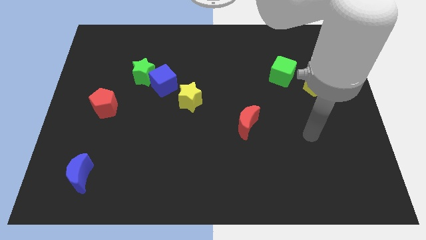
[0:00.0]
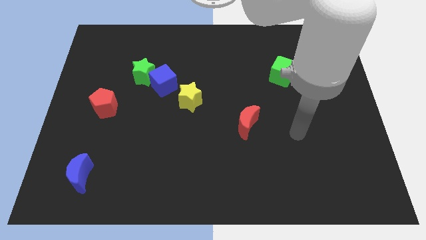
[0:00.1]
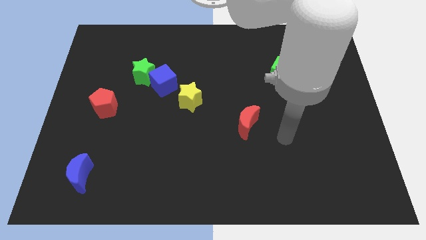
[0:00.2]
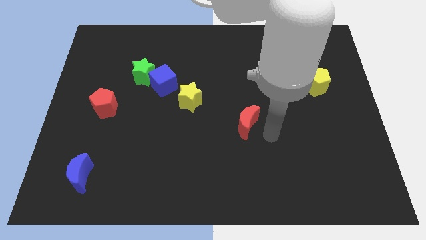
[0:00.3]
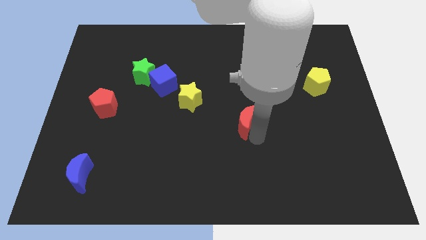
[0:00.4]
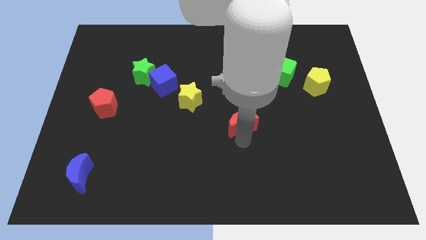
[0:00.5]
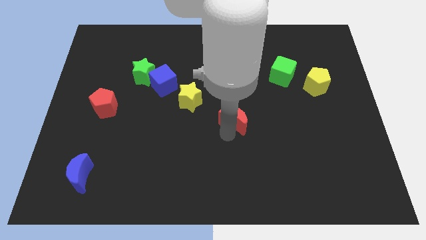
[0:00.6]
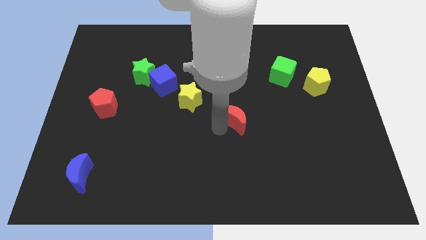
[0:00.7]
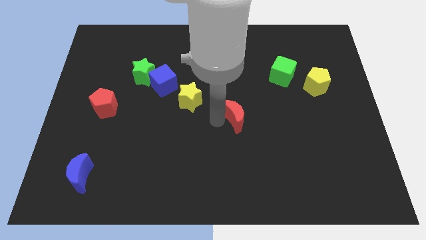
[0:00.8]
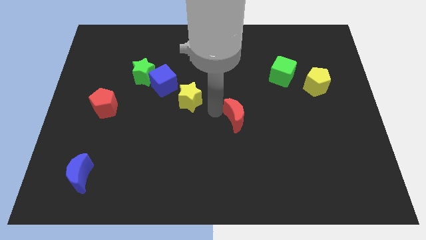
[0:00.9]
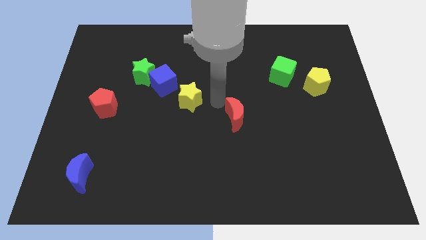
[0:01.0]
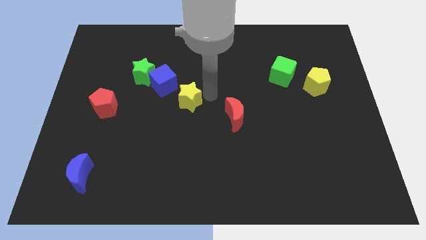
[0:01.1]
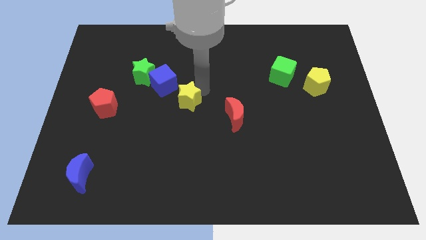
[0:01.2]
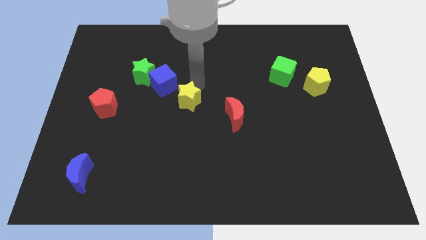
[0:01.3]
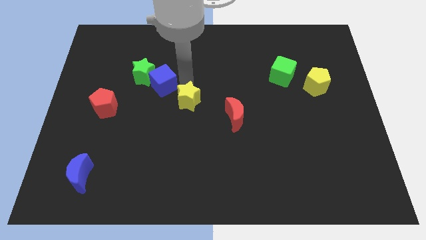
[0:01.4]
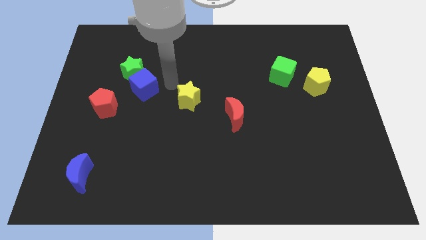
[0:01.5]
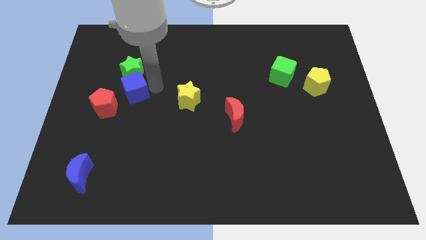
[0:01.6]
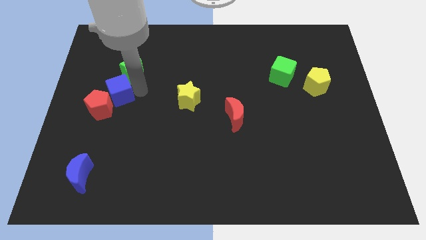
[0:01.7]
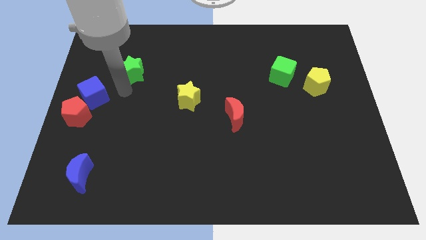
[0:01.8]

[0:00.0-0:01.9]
move the green star away from the blue cube

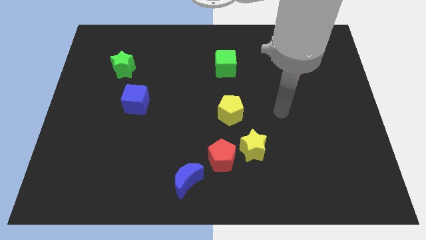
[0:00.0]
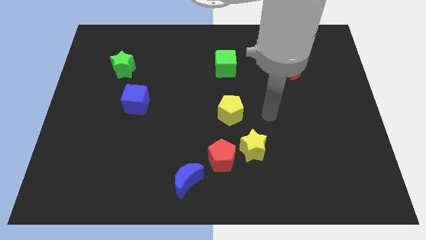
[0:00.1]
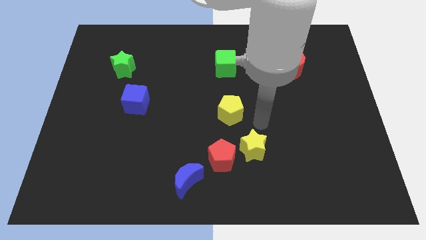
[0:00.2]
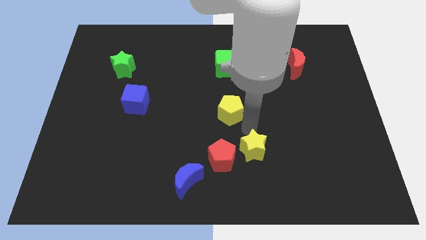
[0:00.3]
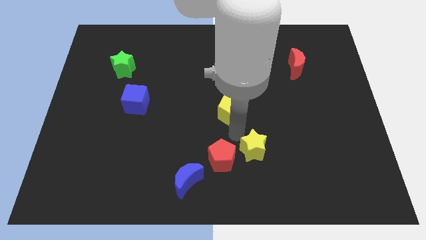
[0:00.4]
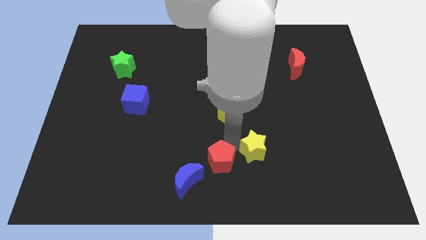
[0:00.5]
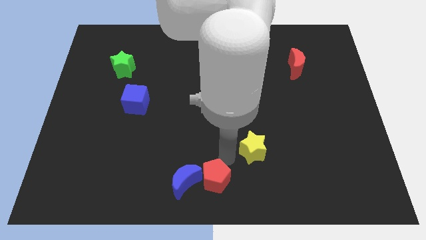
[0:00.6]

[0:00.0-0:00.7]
pull the yellow star apart from the red pentagon

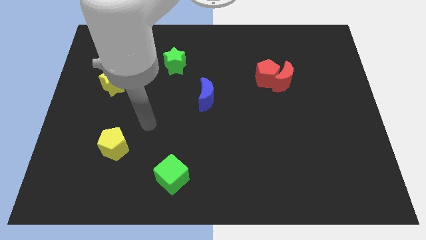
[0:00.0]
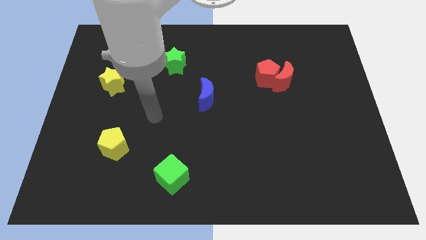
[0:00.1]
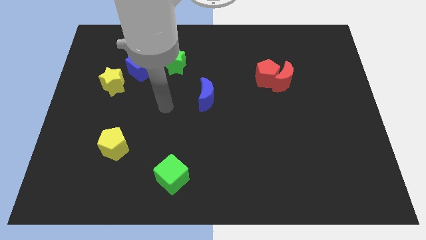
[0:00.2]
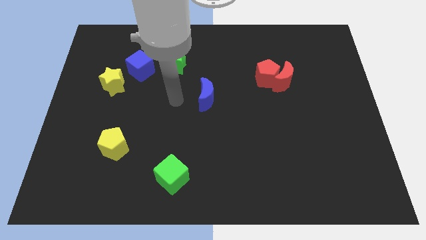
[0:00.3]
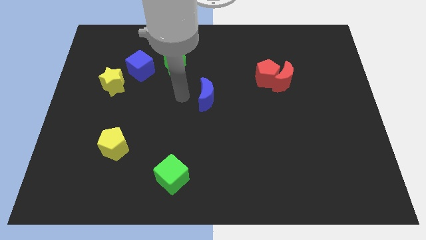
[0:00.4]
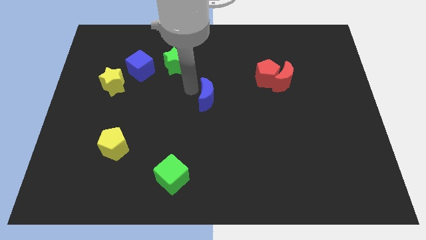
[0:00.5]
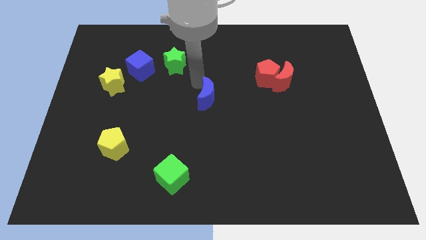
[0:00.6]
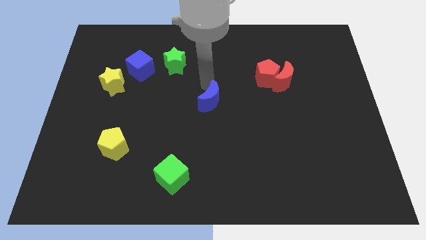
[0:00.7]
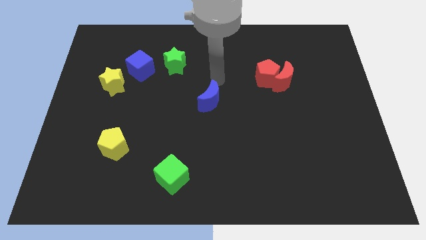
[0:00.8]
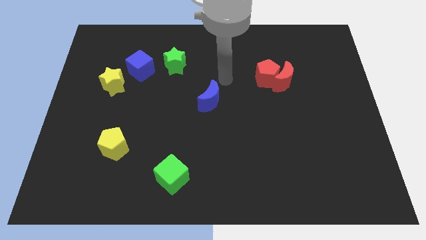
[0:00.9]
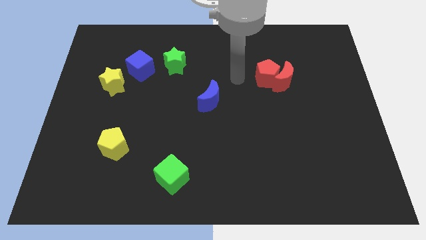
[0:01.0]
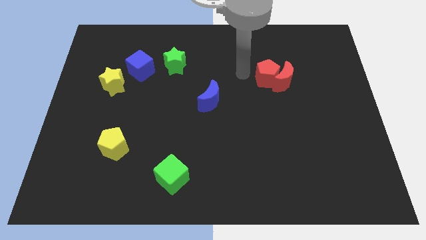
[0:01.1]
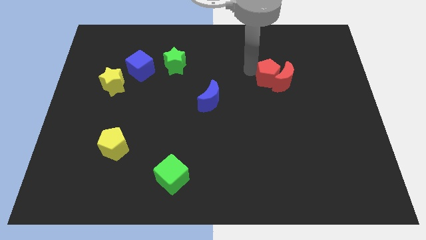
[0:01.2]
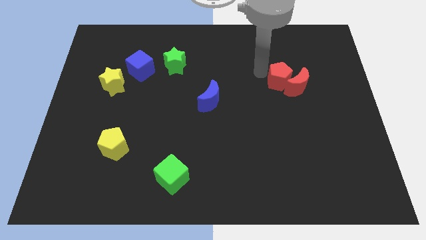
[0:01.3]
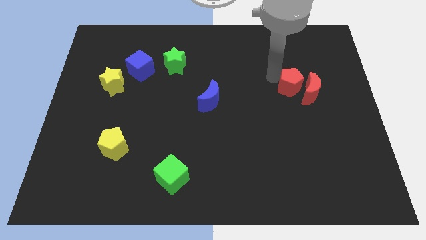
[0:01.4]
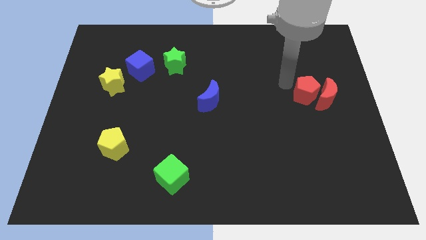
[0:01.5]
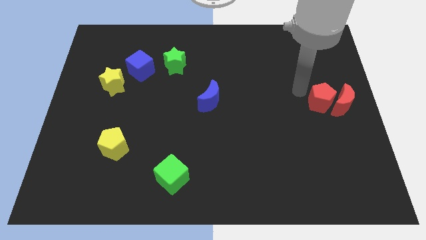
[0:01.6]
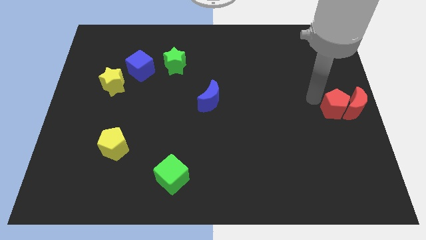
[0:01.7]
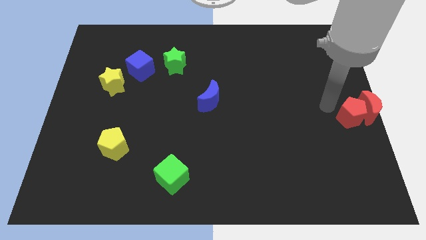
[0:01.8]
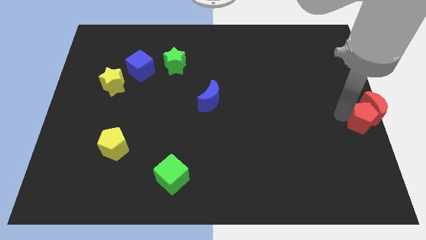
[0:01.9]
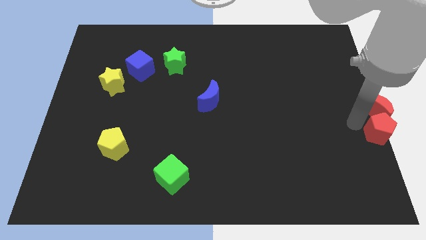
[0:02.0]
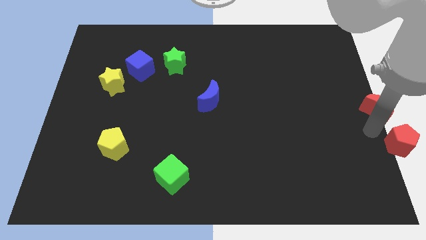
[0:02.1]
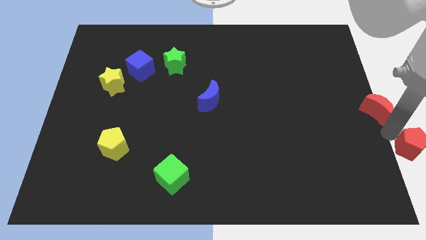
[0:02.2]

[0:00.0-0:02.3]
separate the red moon from the red pentagon

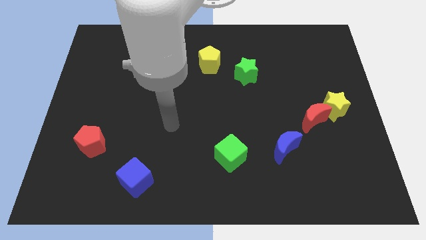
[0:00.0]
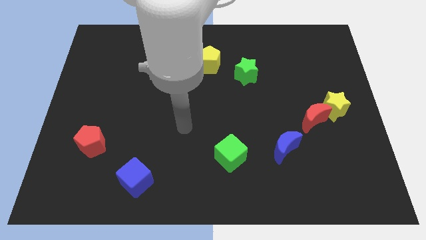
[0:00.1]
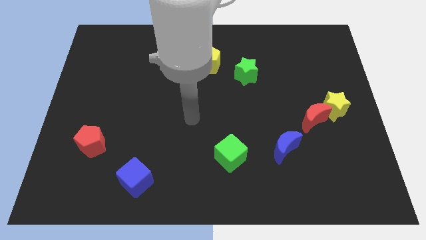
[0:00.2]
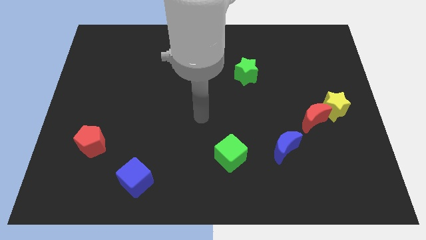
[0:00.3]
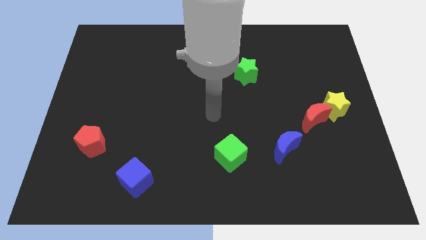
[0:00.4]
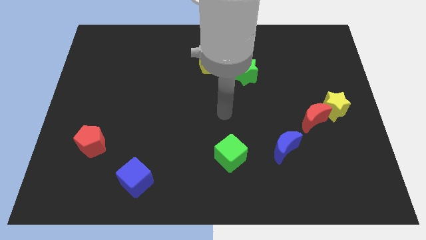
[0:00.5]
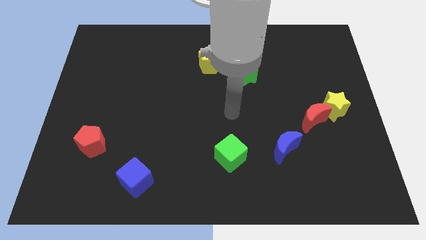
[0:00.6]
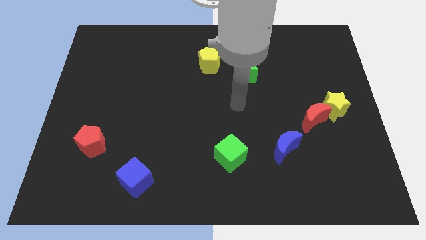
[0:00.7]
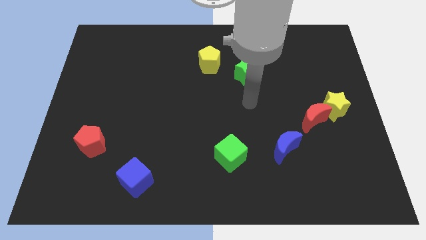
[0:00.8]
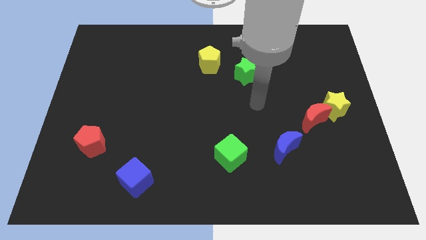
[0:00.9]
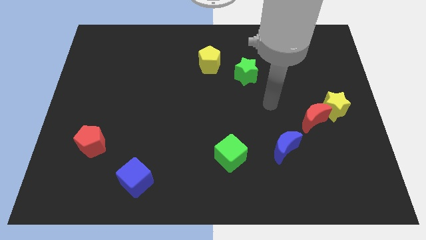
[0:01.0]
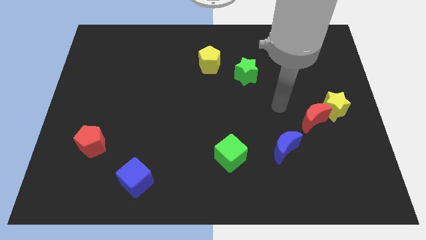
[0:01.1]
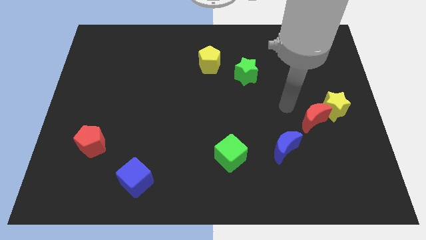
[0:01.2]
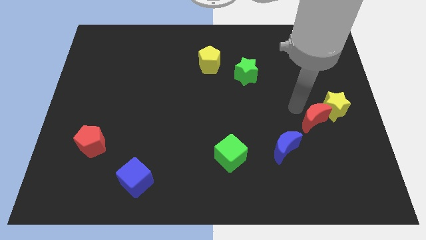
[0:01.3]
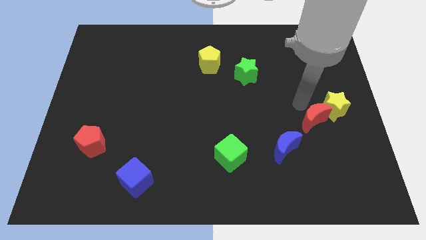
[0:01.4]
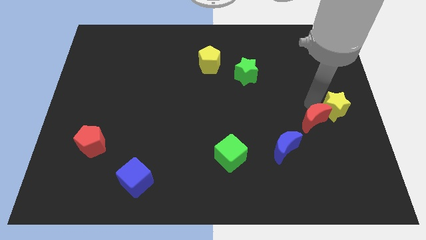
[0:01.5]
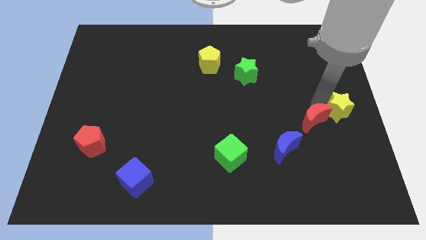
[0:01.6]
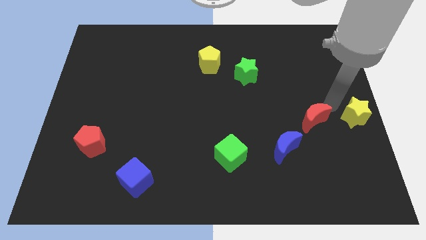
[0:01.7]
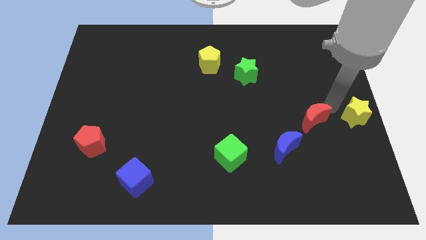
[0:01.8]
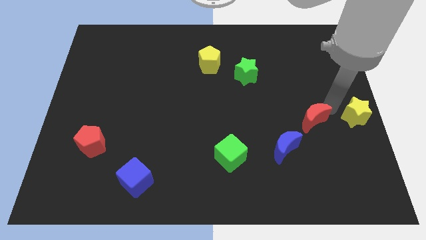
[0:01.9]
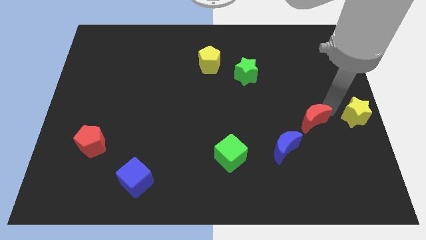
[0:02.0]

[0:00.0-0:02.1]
pull the red moon apart from the yellow star

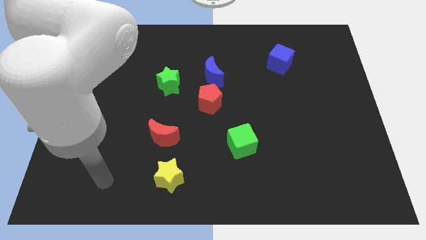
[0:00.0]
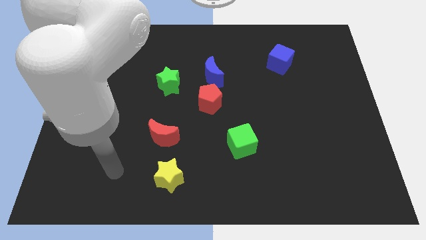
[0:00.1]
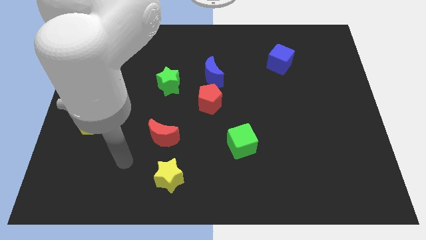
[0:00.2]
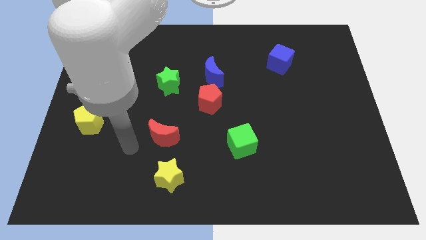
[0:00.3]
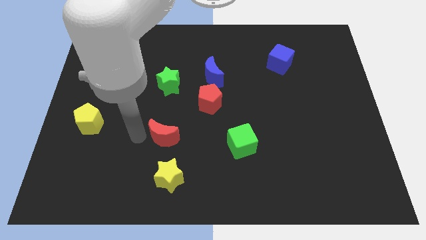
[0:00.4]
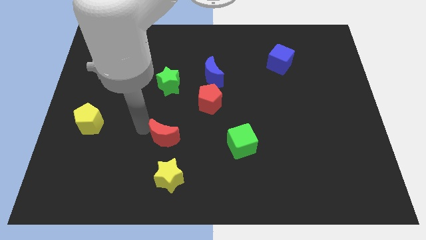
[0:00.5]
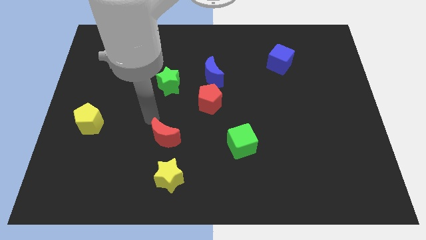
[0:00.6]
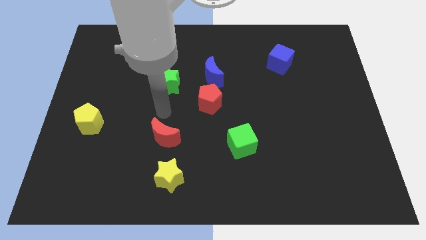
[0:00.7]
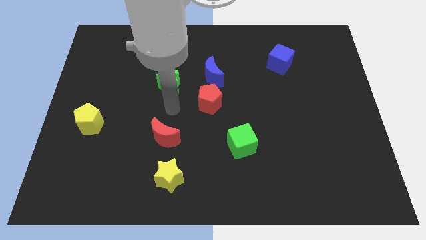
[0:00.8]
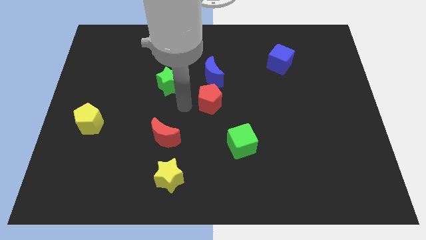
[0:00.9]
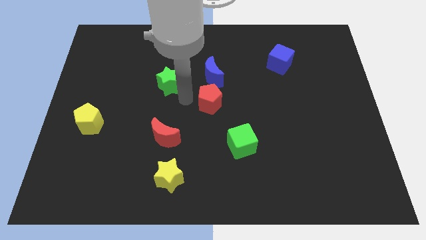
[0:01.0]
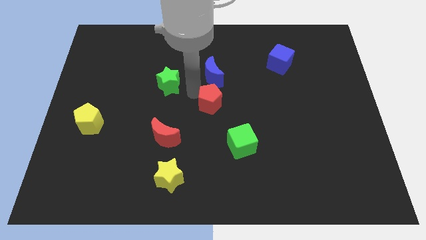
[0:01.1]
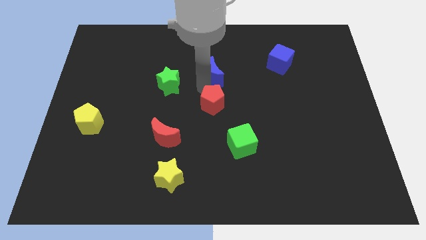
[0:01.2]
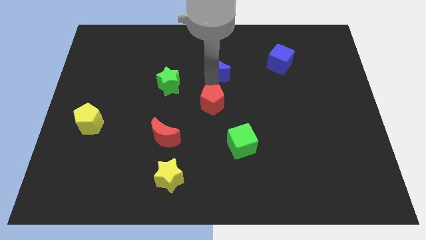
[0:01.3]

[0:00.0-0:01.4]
pull the red pentagon apart from the blue moon

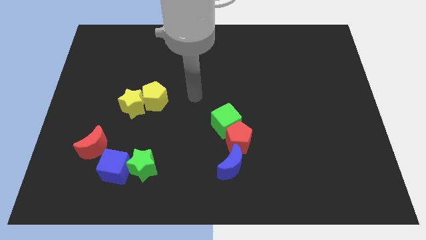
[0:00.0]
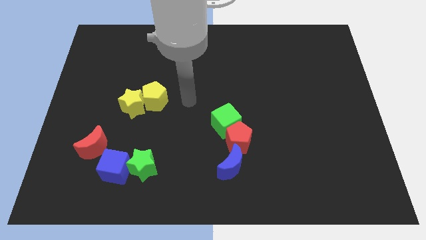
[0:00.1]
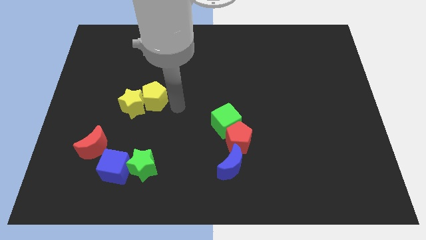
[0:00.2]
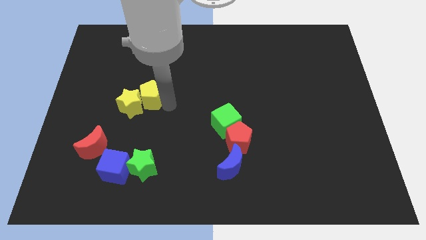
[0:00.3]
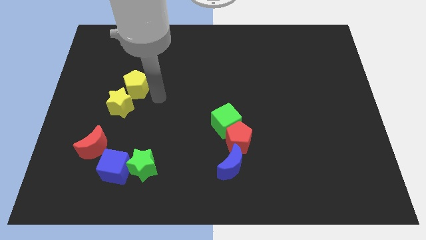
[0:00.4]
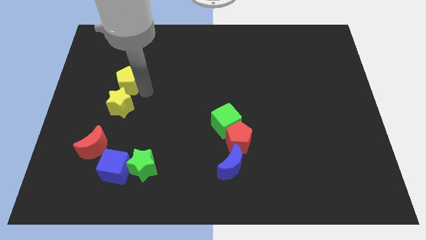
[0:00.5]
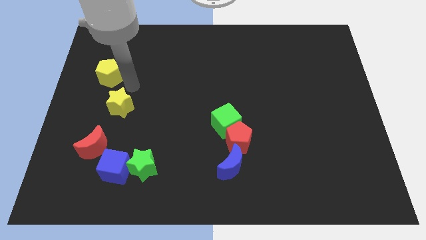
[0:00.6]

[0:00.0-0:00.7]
pull the yellow star apart from the yellow pentagon

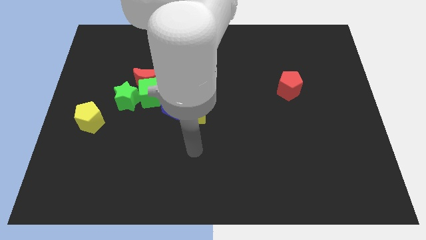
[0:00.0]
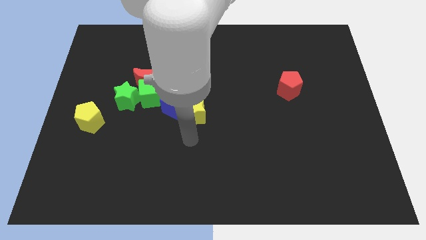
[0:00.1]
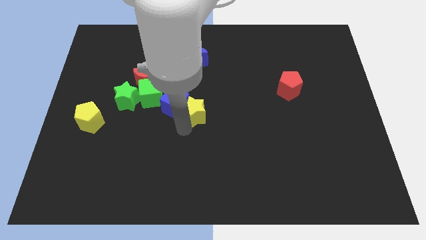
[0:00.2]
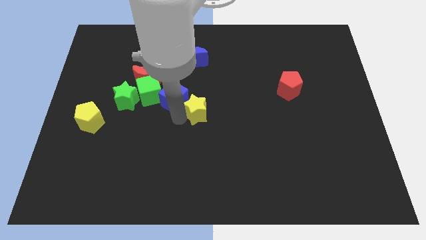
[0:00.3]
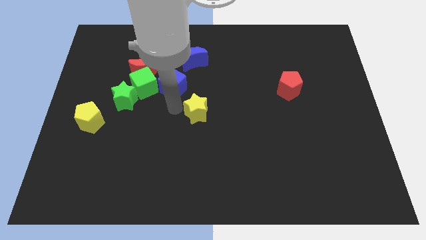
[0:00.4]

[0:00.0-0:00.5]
move the yellow star away from the blue cube
